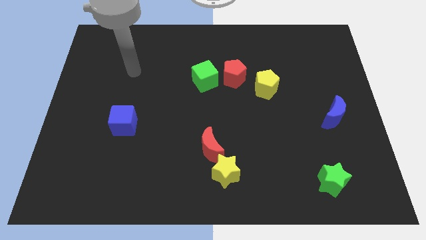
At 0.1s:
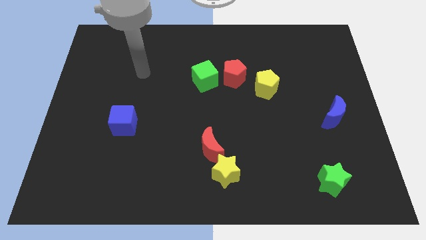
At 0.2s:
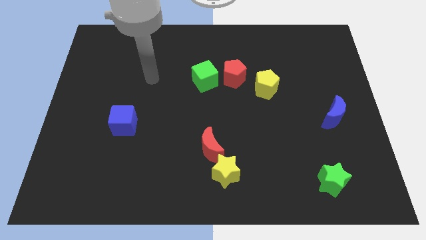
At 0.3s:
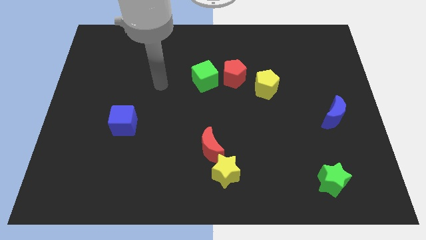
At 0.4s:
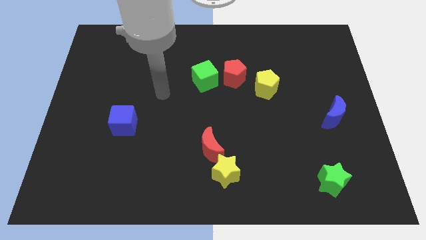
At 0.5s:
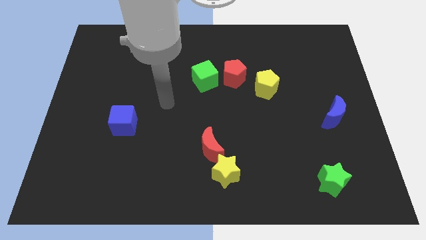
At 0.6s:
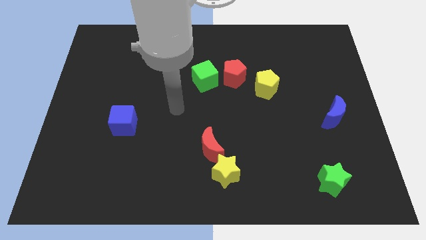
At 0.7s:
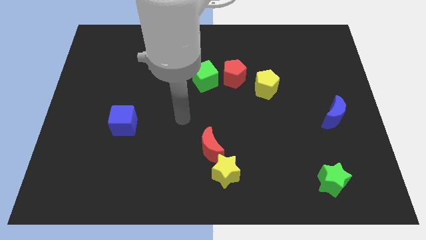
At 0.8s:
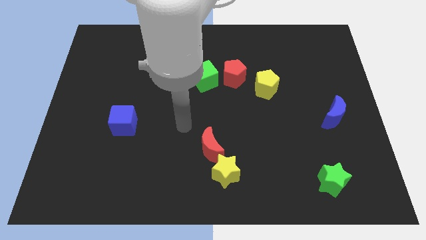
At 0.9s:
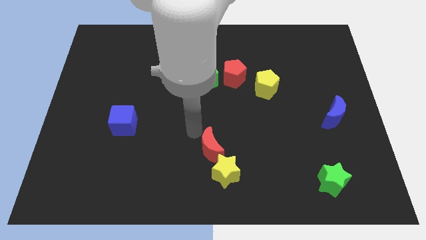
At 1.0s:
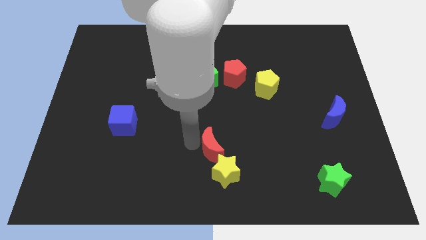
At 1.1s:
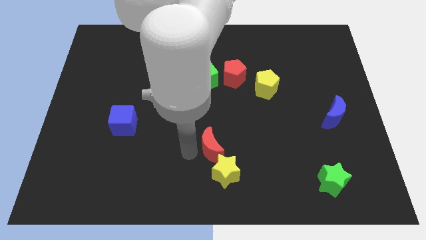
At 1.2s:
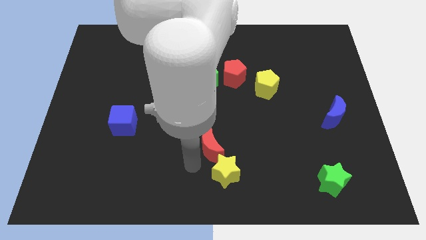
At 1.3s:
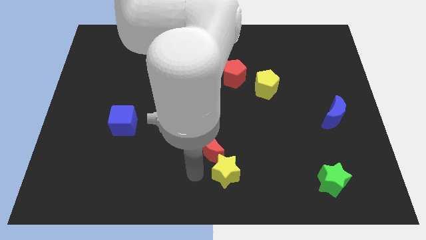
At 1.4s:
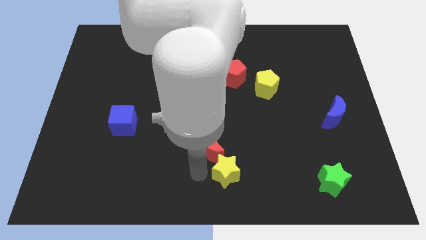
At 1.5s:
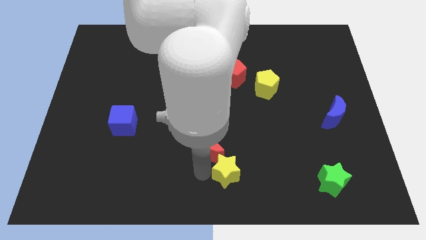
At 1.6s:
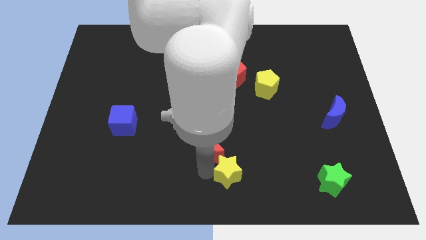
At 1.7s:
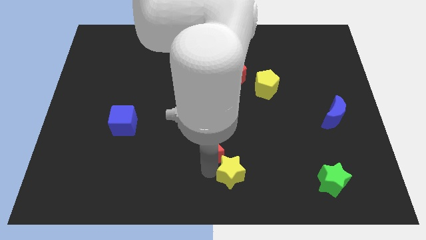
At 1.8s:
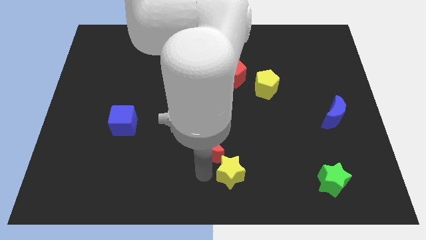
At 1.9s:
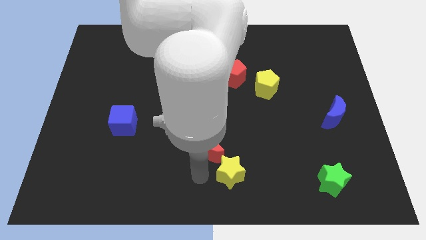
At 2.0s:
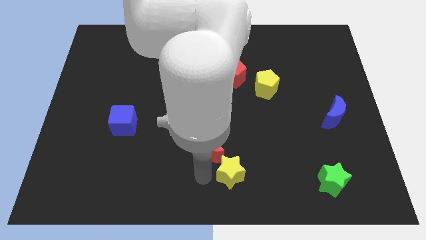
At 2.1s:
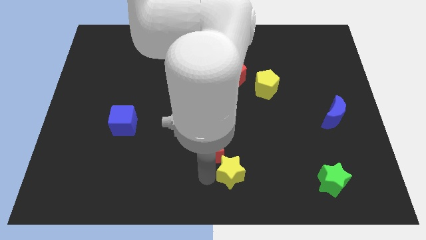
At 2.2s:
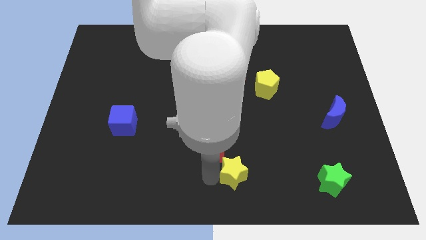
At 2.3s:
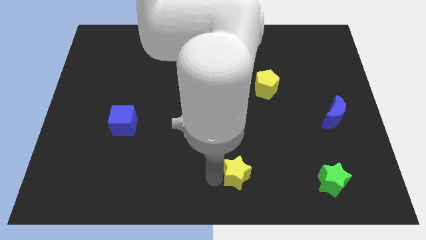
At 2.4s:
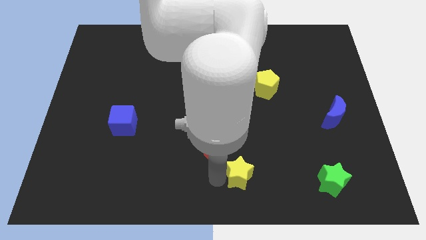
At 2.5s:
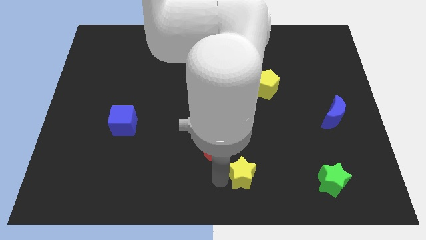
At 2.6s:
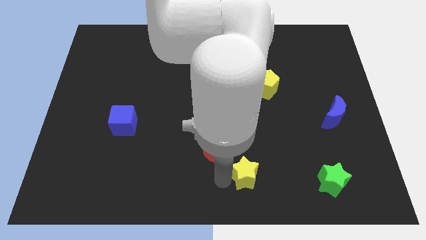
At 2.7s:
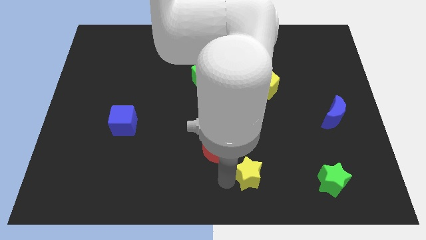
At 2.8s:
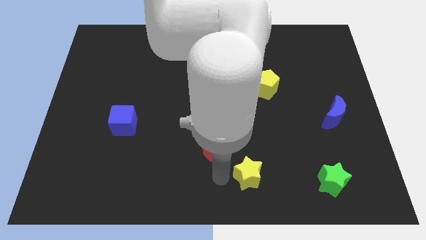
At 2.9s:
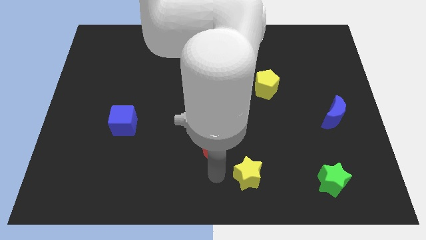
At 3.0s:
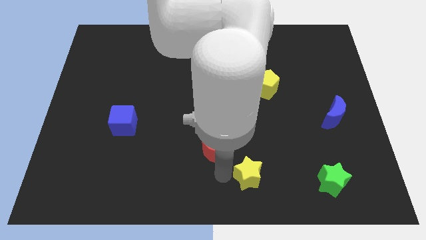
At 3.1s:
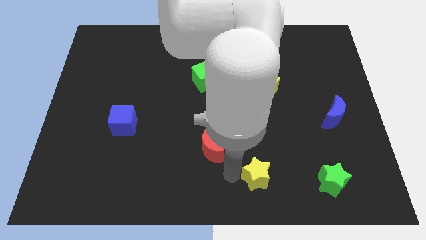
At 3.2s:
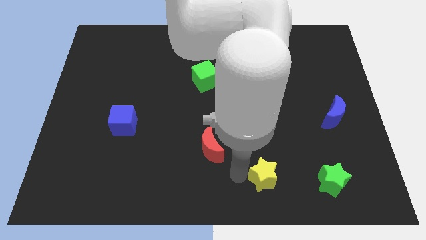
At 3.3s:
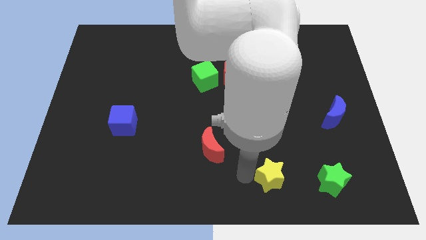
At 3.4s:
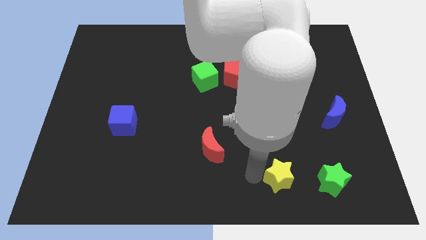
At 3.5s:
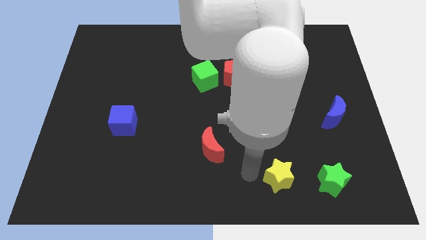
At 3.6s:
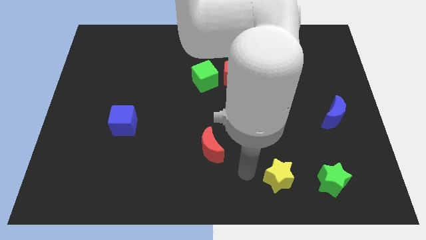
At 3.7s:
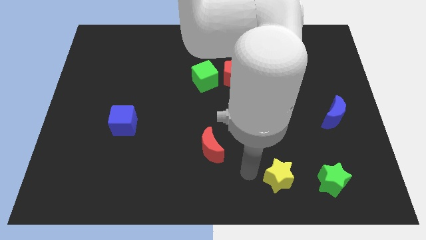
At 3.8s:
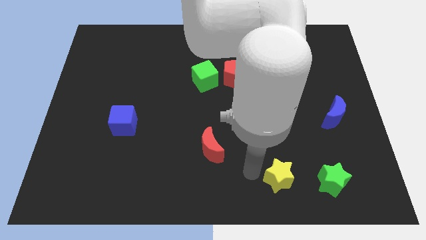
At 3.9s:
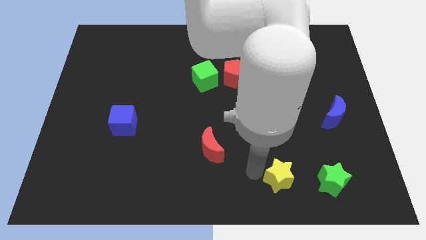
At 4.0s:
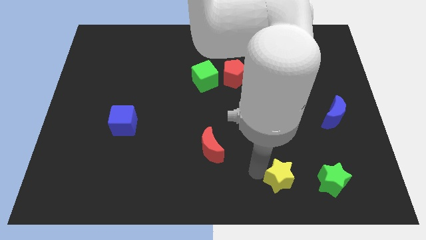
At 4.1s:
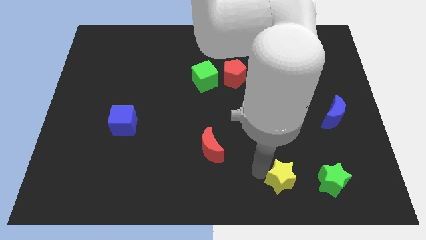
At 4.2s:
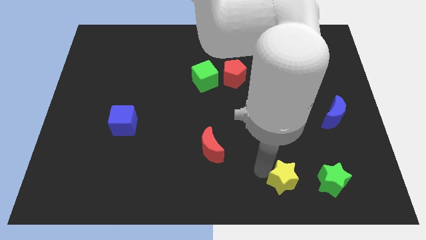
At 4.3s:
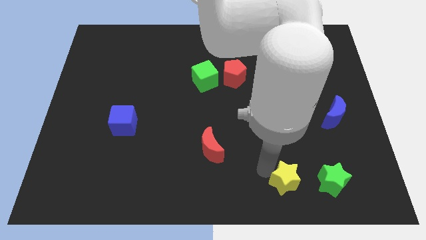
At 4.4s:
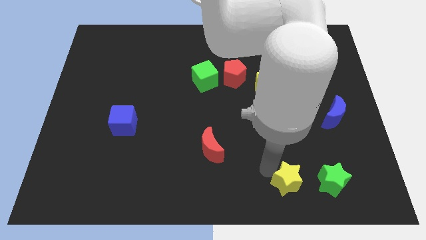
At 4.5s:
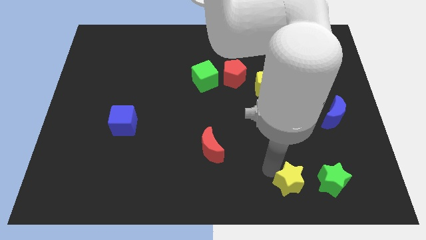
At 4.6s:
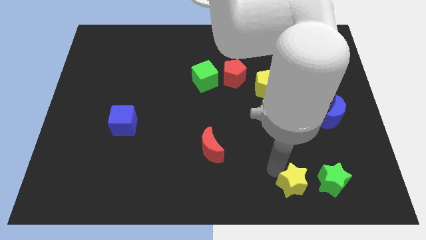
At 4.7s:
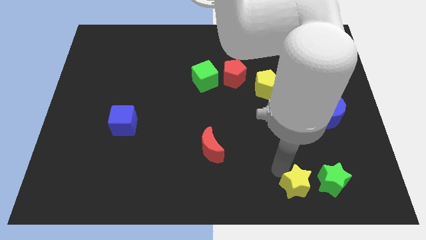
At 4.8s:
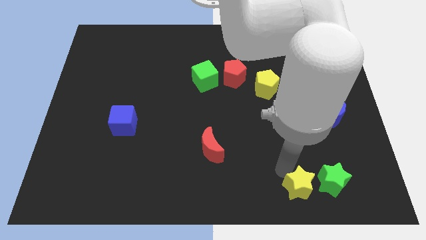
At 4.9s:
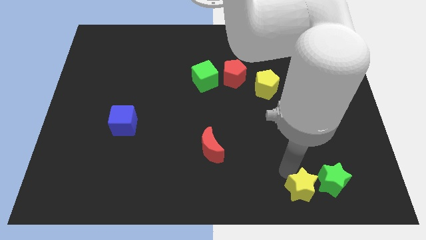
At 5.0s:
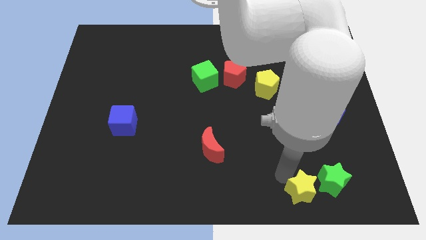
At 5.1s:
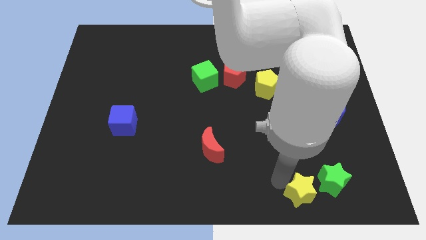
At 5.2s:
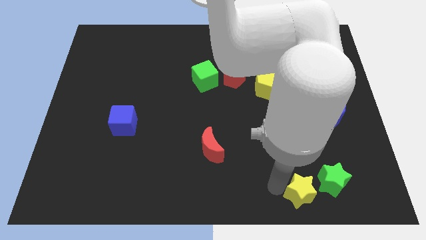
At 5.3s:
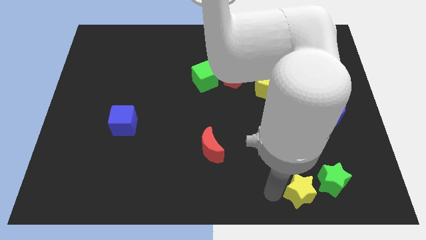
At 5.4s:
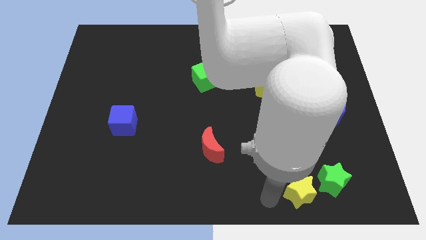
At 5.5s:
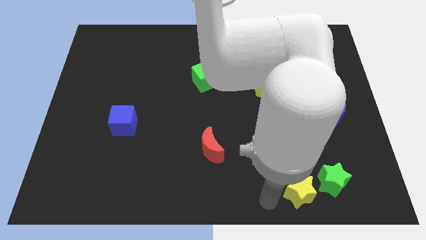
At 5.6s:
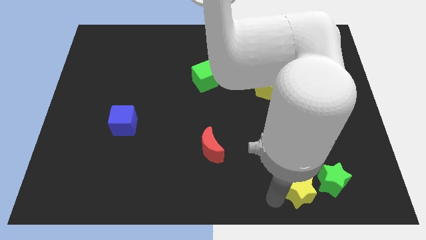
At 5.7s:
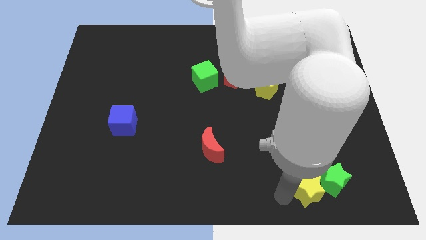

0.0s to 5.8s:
slide the yellow star next to the green star

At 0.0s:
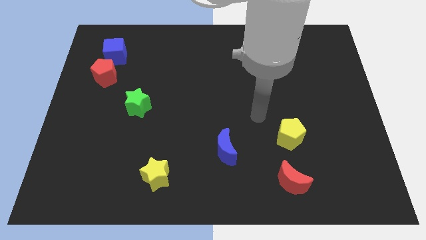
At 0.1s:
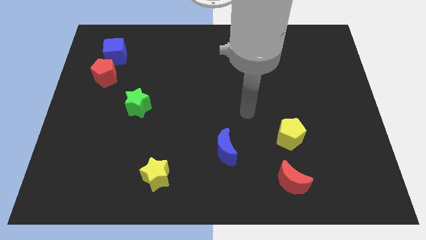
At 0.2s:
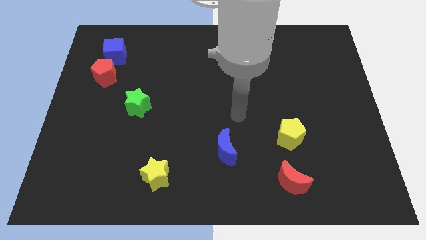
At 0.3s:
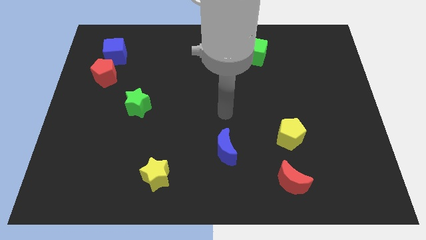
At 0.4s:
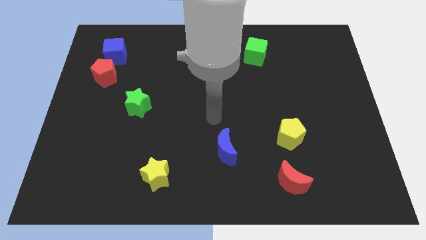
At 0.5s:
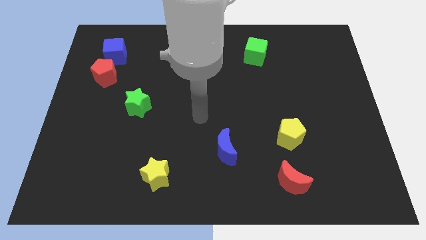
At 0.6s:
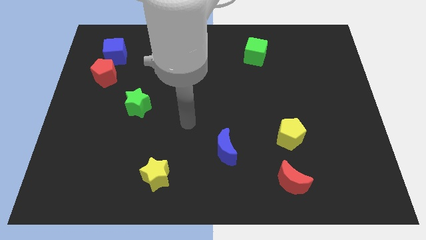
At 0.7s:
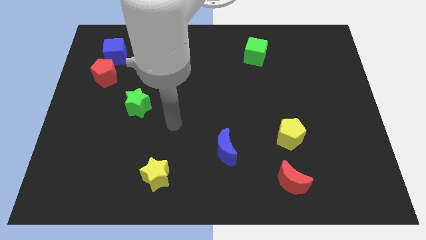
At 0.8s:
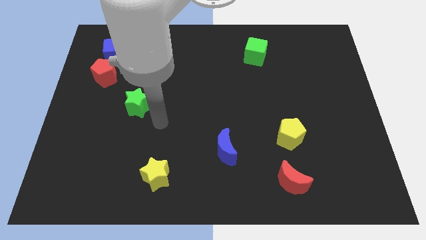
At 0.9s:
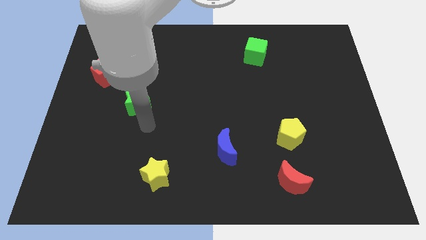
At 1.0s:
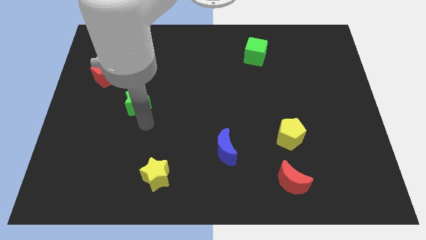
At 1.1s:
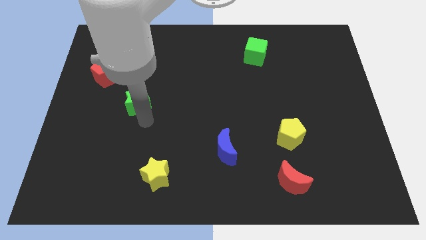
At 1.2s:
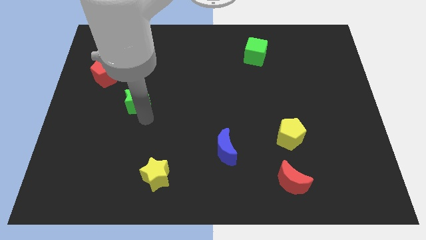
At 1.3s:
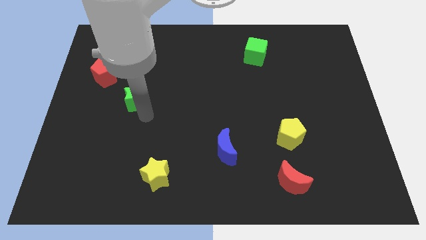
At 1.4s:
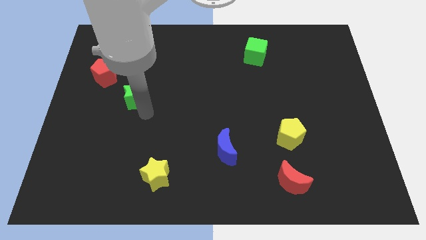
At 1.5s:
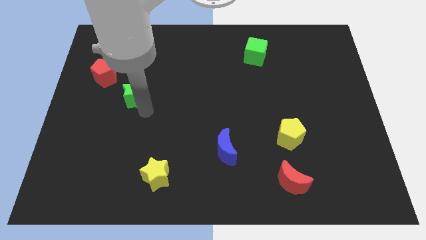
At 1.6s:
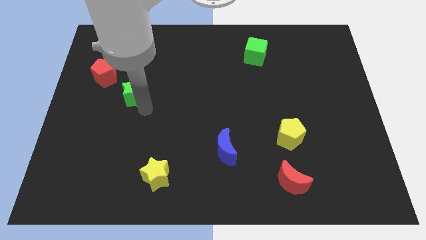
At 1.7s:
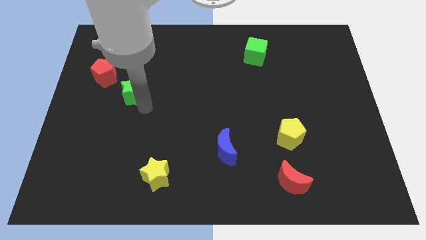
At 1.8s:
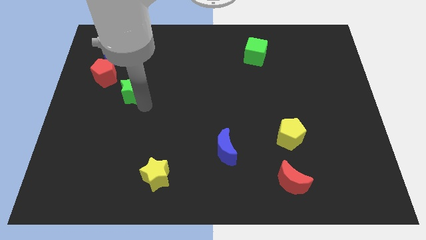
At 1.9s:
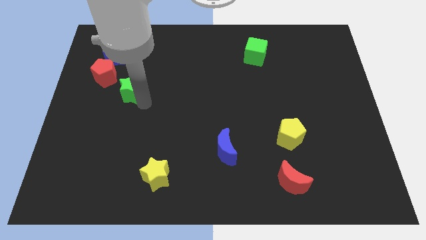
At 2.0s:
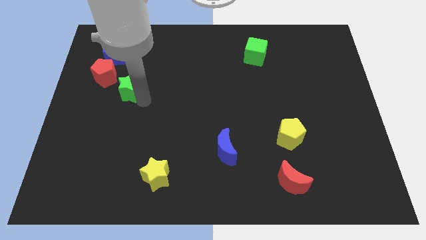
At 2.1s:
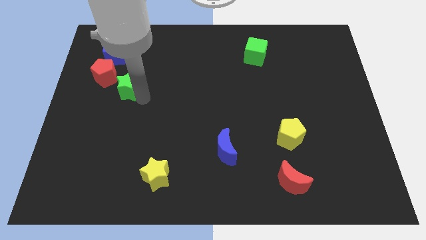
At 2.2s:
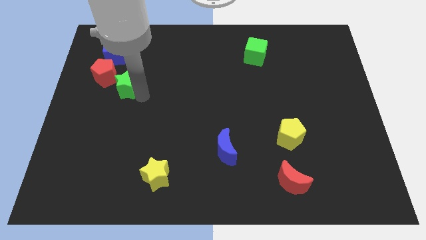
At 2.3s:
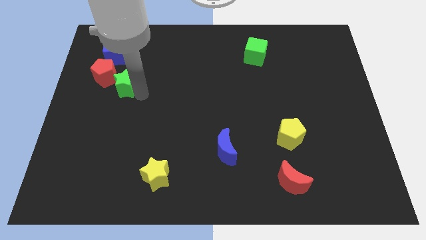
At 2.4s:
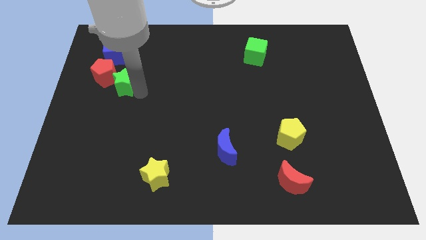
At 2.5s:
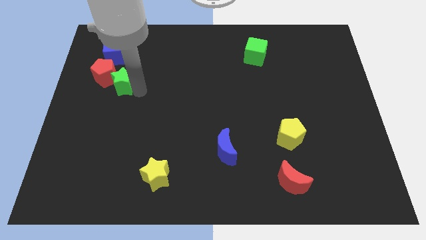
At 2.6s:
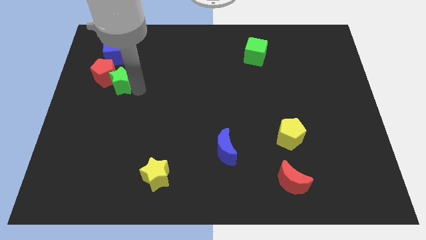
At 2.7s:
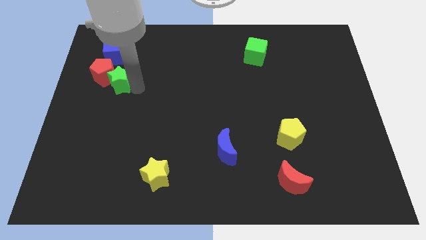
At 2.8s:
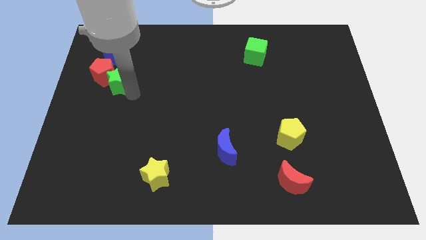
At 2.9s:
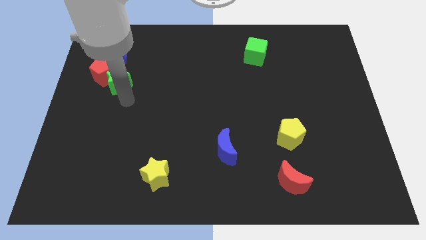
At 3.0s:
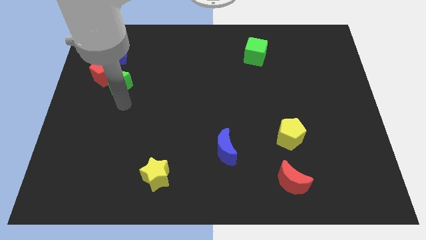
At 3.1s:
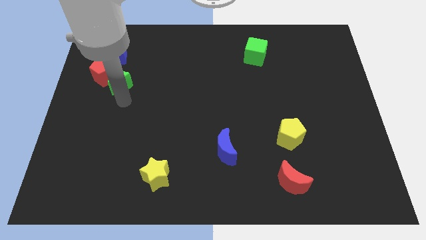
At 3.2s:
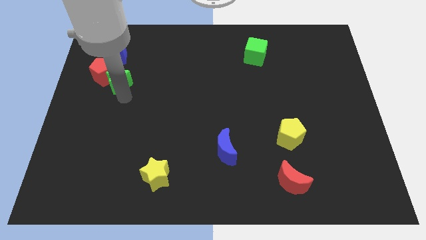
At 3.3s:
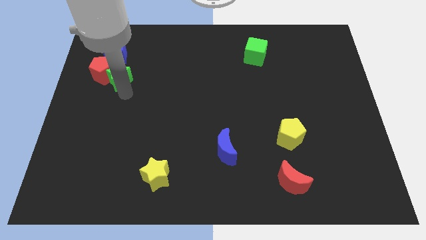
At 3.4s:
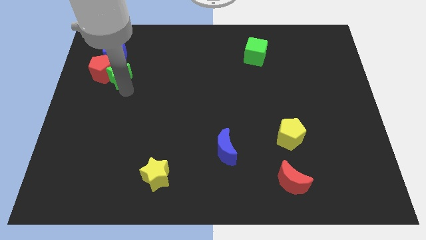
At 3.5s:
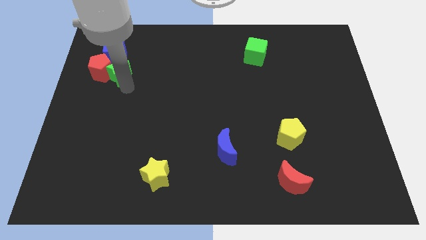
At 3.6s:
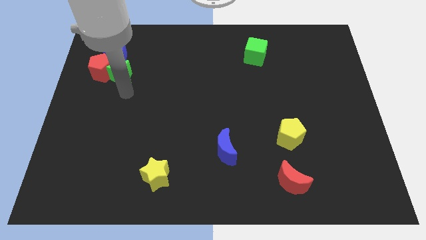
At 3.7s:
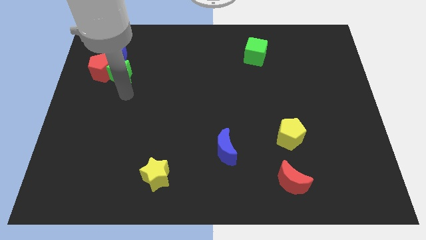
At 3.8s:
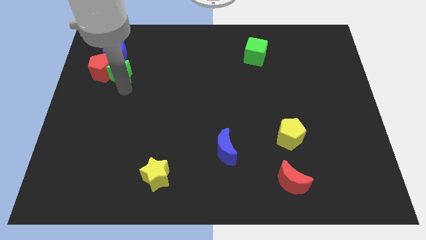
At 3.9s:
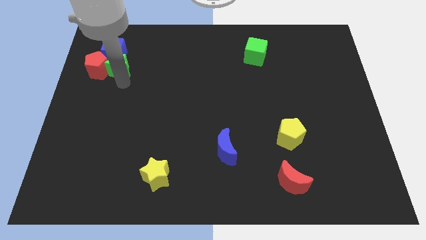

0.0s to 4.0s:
put the green star to the blue cube
